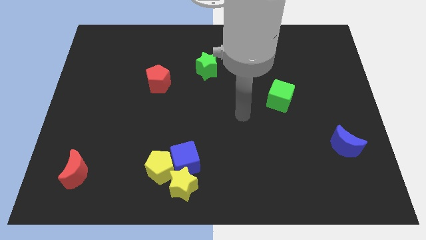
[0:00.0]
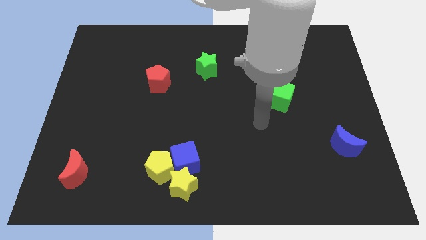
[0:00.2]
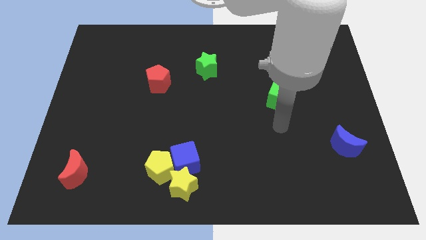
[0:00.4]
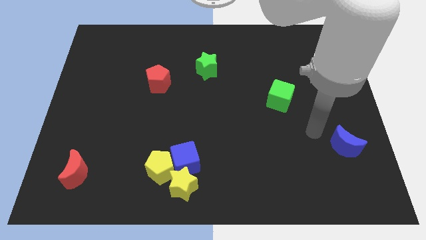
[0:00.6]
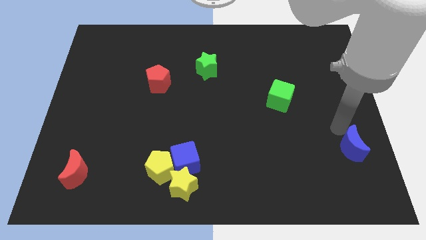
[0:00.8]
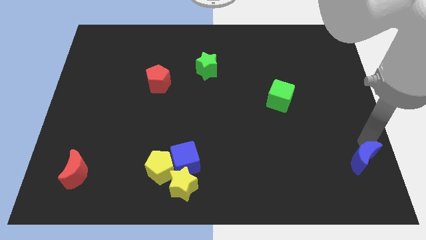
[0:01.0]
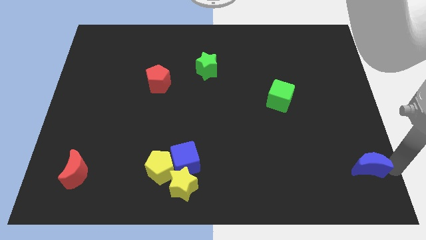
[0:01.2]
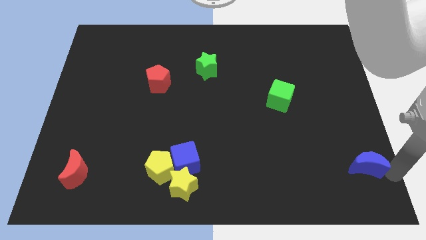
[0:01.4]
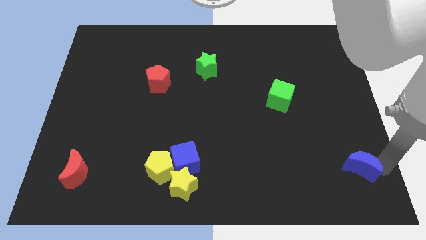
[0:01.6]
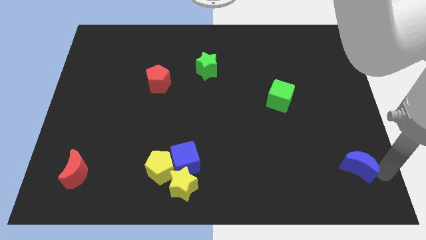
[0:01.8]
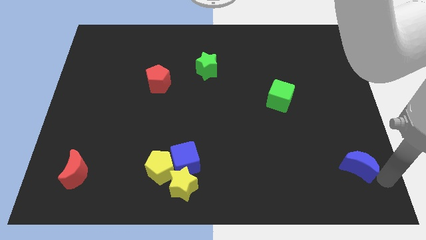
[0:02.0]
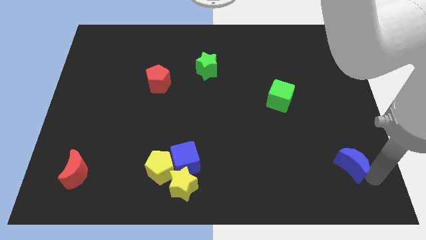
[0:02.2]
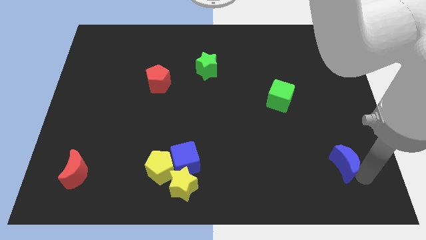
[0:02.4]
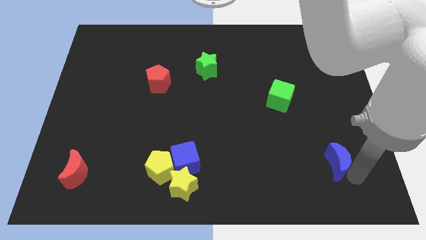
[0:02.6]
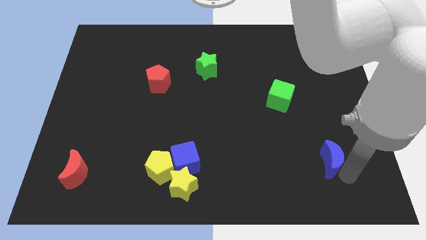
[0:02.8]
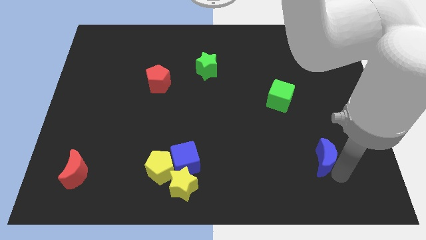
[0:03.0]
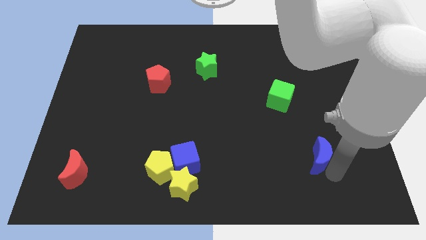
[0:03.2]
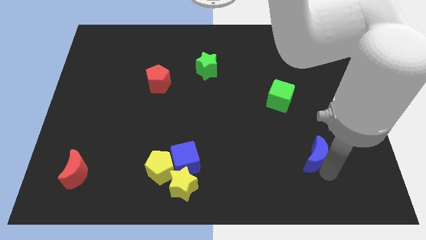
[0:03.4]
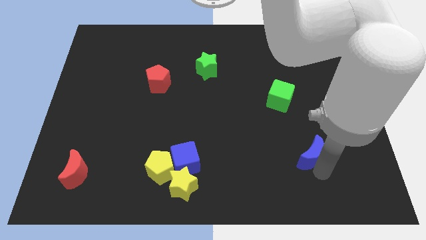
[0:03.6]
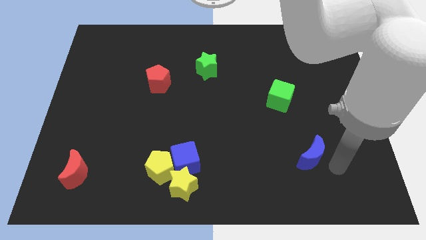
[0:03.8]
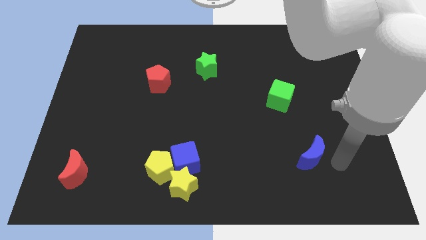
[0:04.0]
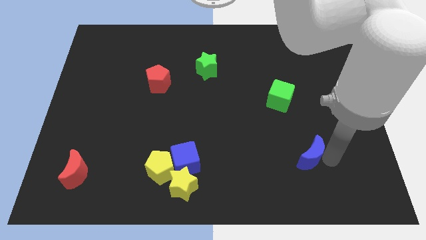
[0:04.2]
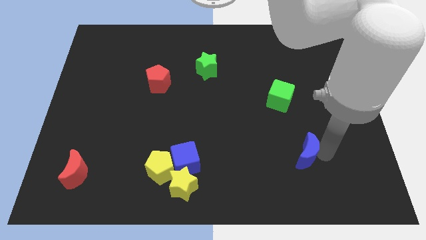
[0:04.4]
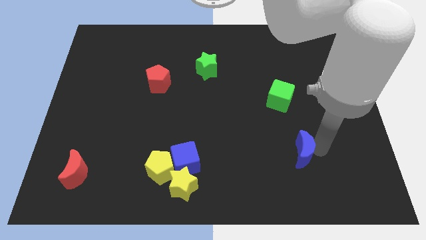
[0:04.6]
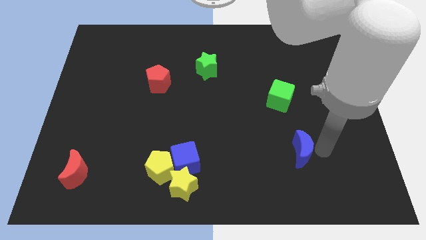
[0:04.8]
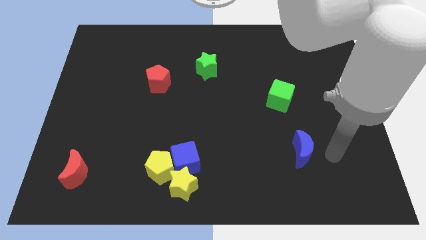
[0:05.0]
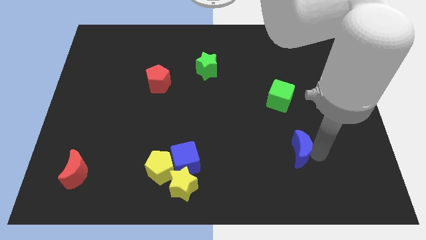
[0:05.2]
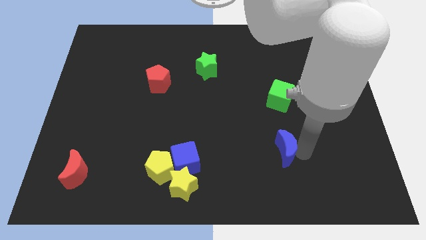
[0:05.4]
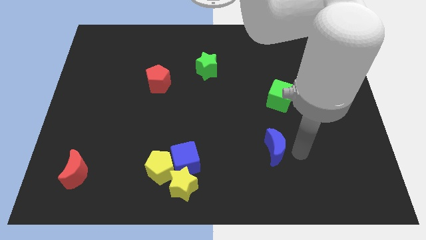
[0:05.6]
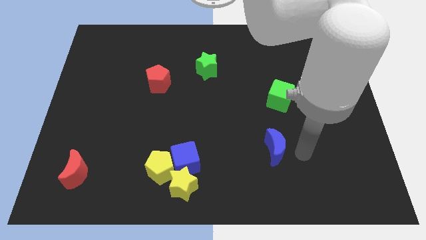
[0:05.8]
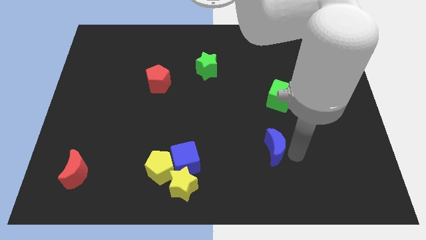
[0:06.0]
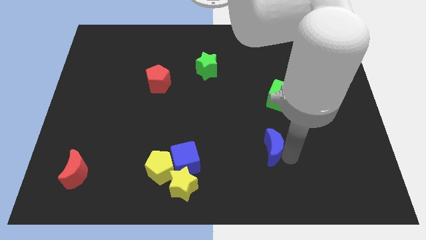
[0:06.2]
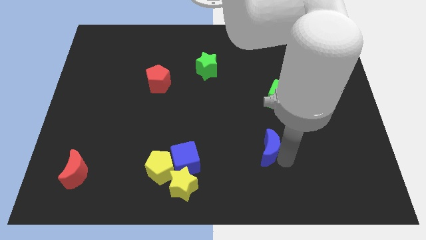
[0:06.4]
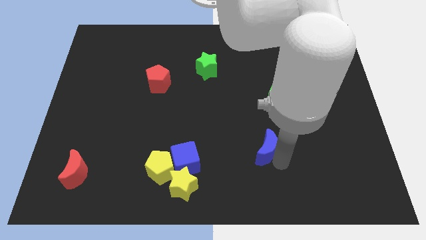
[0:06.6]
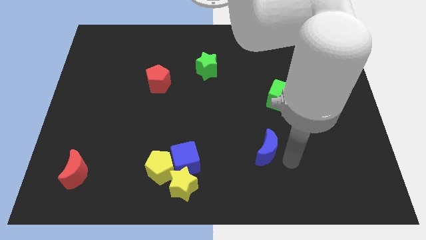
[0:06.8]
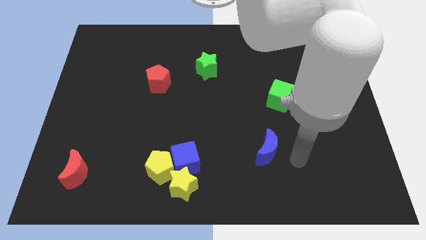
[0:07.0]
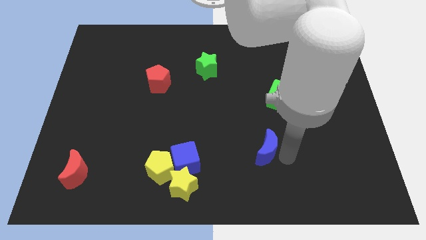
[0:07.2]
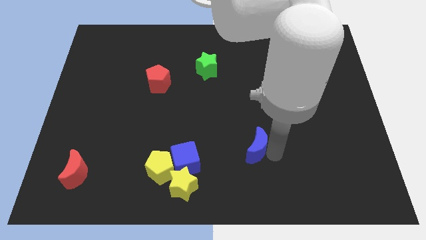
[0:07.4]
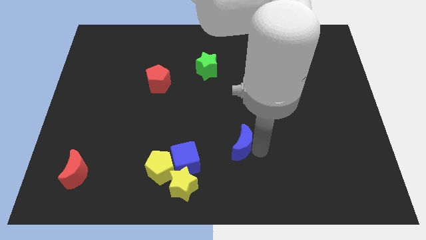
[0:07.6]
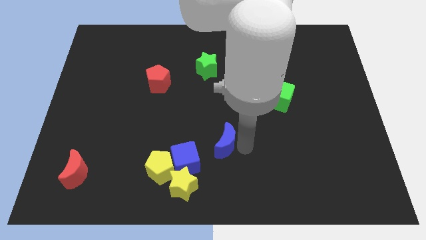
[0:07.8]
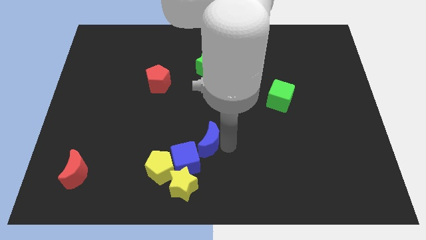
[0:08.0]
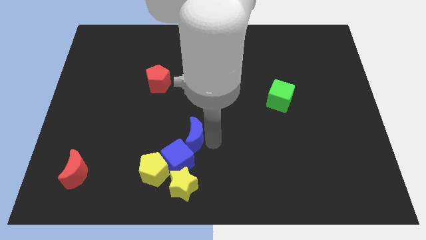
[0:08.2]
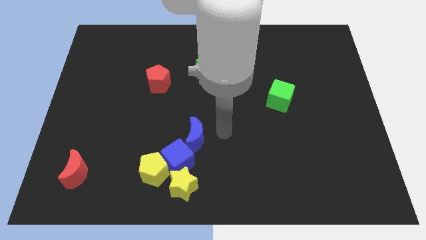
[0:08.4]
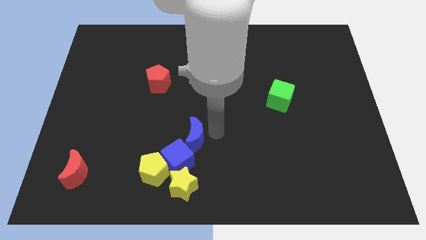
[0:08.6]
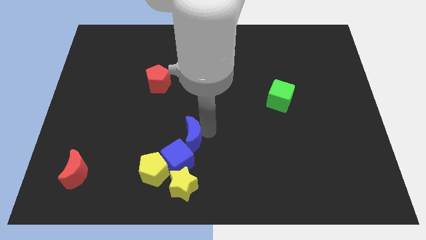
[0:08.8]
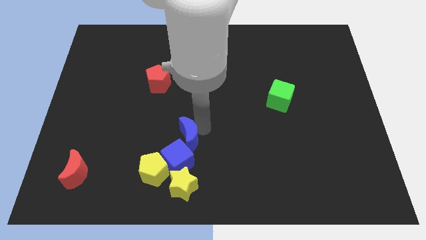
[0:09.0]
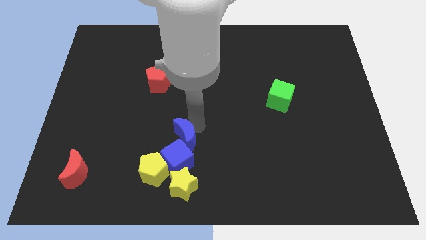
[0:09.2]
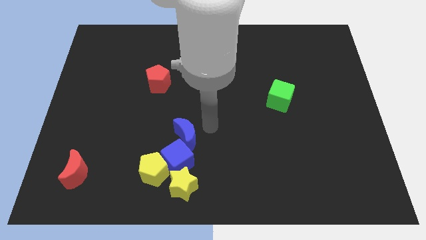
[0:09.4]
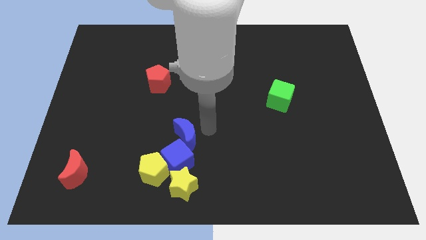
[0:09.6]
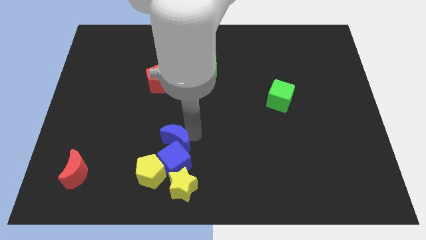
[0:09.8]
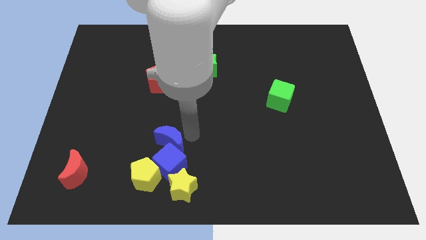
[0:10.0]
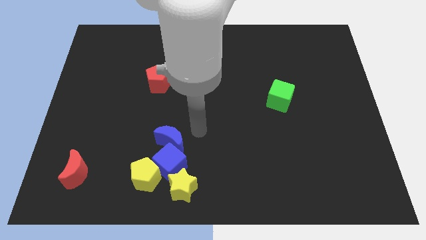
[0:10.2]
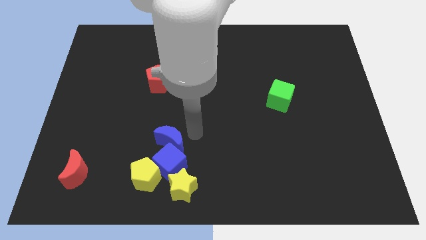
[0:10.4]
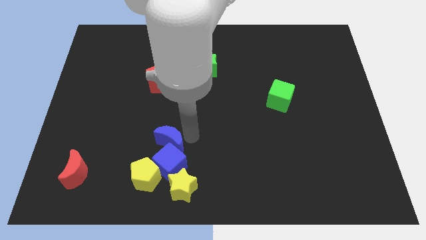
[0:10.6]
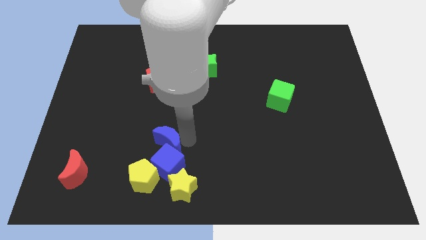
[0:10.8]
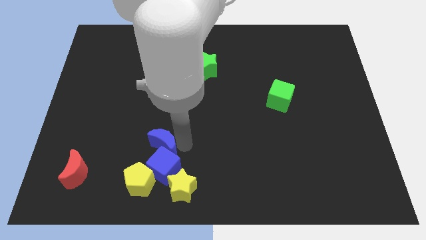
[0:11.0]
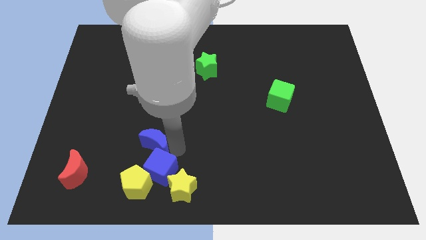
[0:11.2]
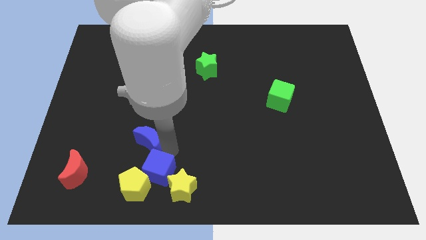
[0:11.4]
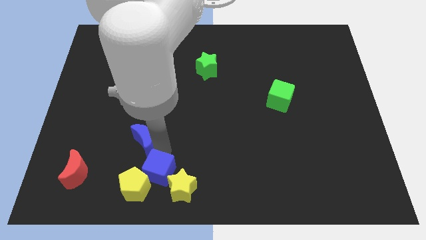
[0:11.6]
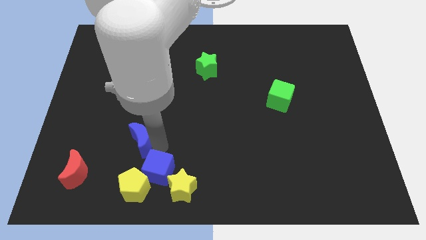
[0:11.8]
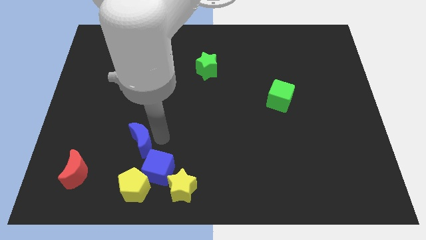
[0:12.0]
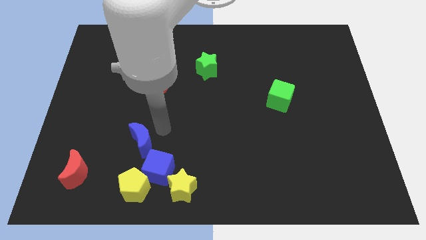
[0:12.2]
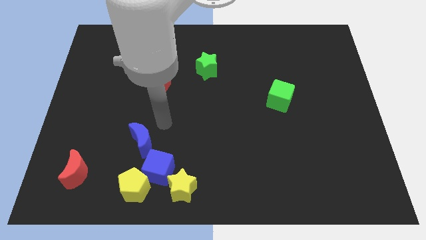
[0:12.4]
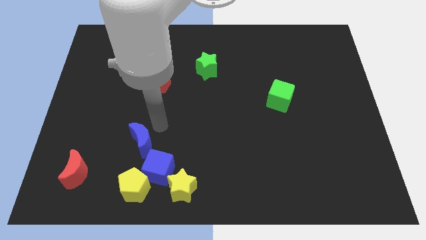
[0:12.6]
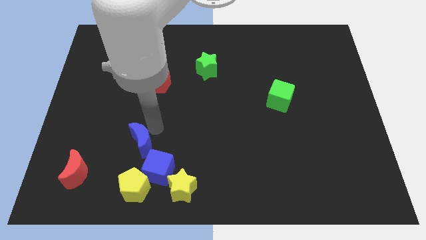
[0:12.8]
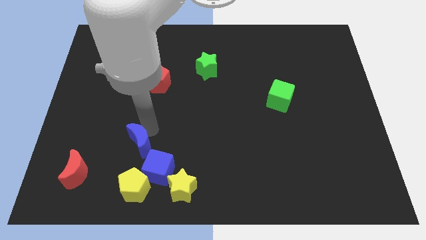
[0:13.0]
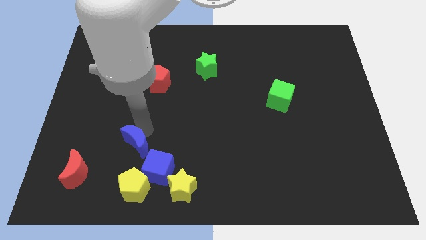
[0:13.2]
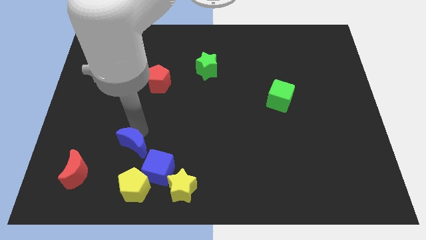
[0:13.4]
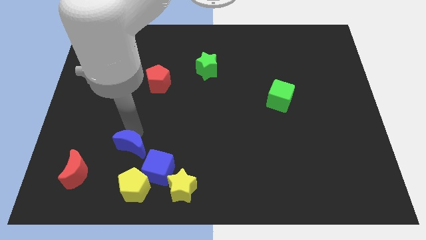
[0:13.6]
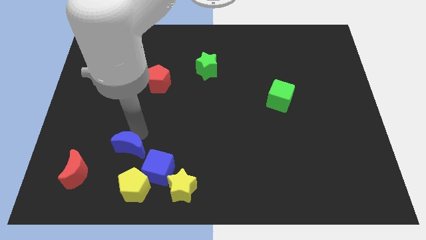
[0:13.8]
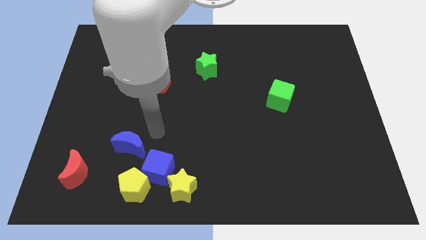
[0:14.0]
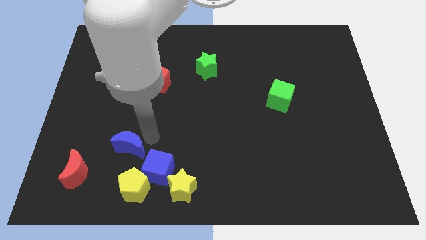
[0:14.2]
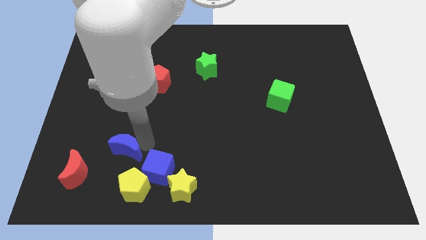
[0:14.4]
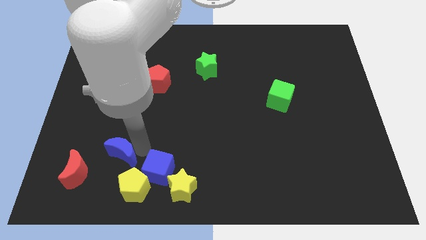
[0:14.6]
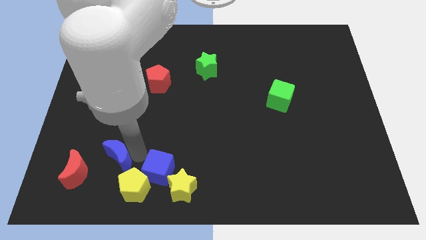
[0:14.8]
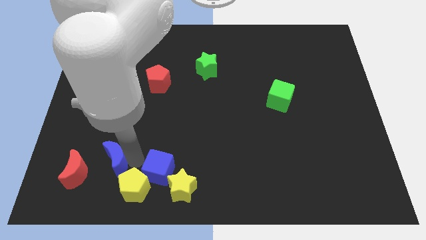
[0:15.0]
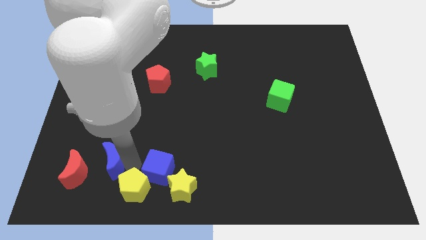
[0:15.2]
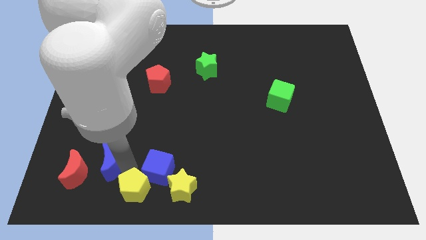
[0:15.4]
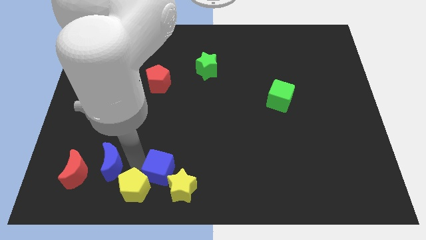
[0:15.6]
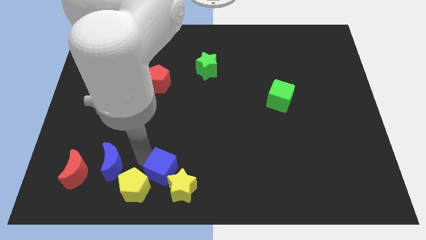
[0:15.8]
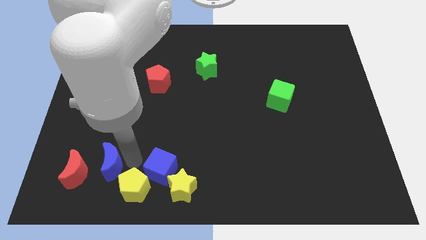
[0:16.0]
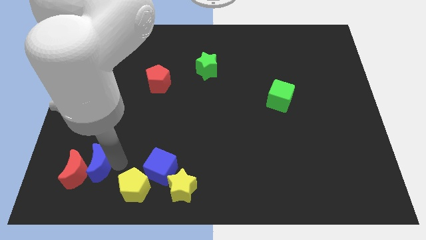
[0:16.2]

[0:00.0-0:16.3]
slide the blue moon close to the red moon
